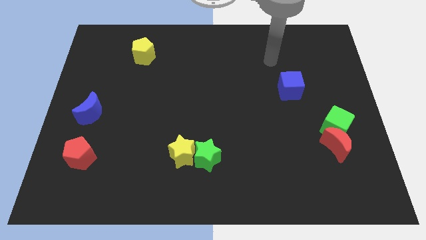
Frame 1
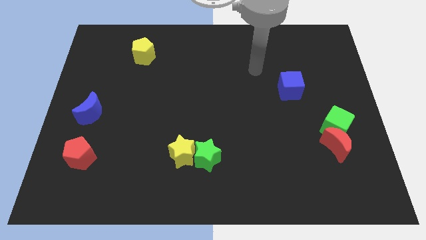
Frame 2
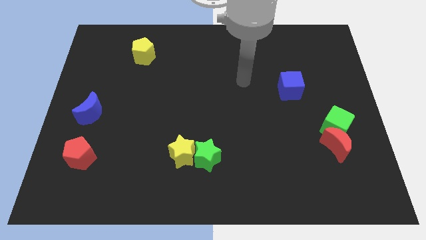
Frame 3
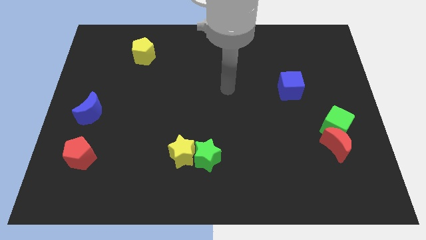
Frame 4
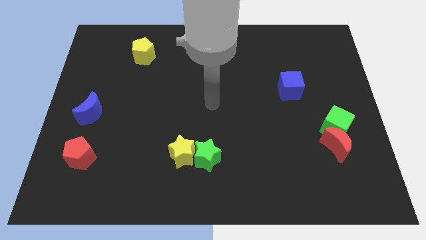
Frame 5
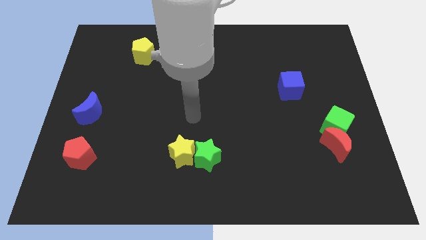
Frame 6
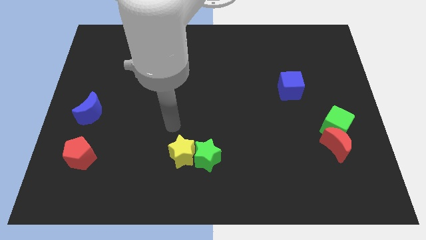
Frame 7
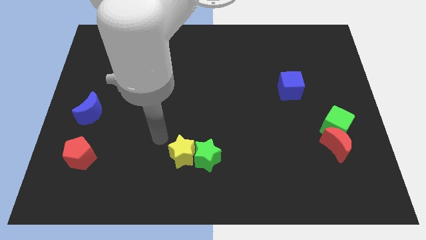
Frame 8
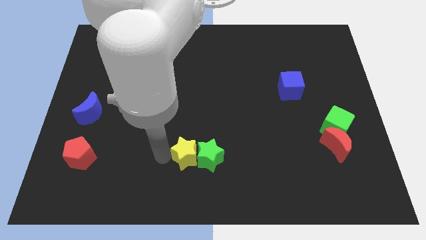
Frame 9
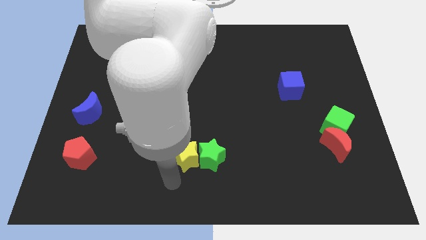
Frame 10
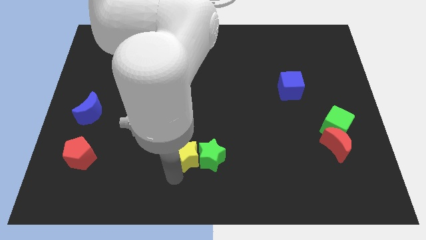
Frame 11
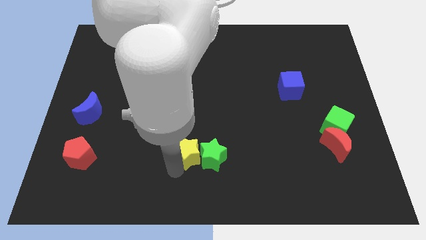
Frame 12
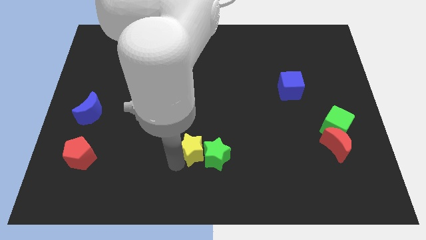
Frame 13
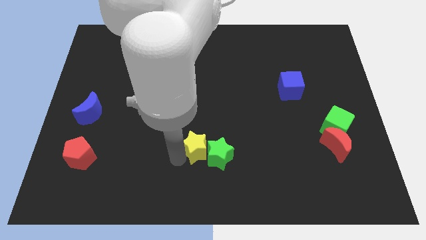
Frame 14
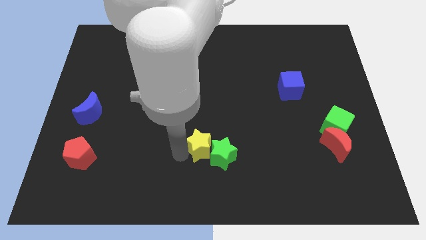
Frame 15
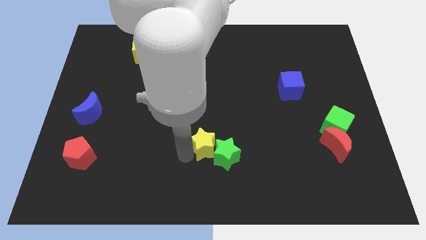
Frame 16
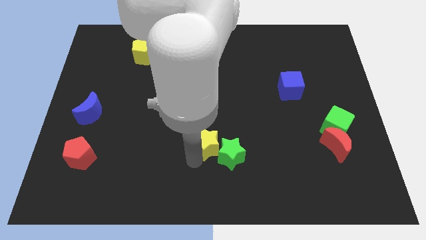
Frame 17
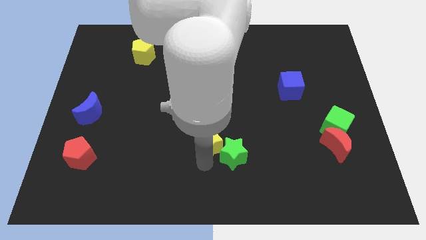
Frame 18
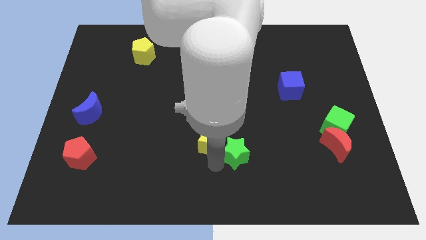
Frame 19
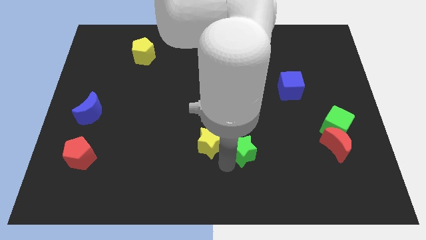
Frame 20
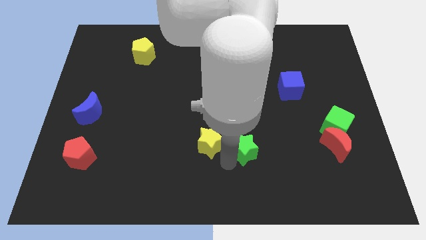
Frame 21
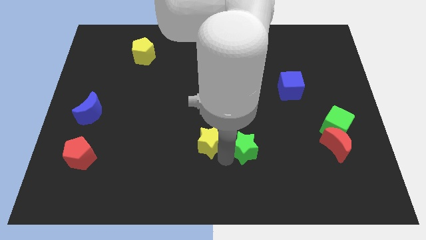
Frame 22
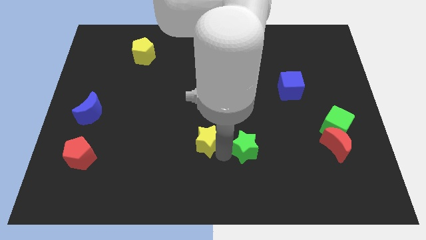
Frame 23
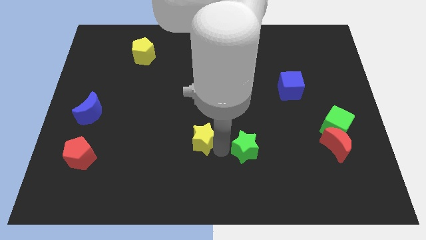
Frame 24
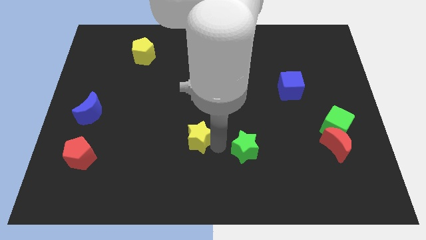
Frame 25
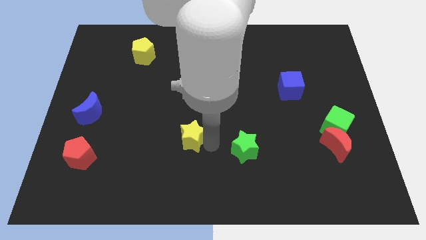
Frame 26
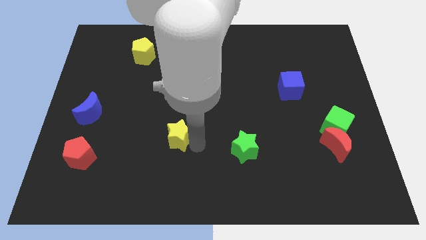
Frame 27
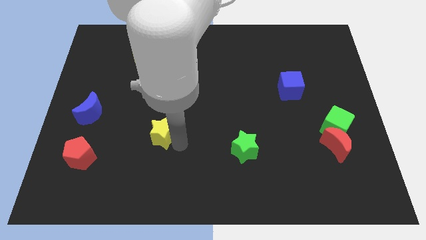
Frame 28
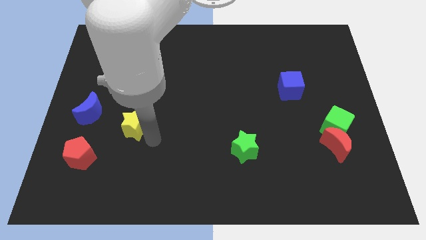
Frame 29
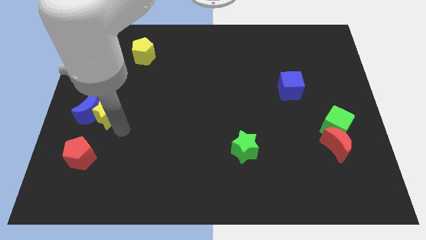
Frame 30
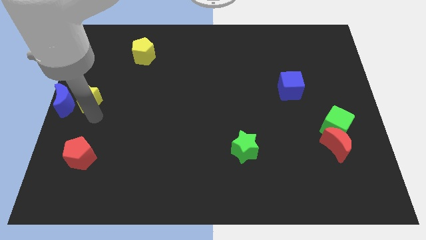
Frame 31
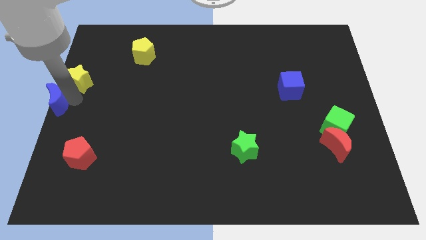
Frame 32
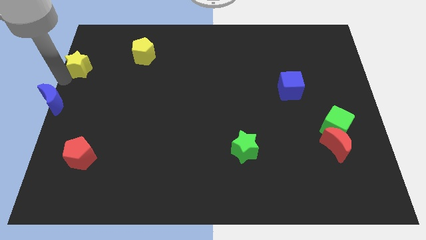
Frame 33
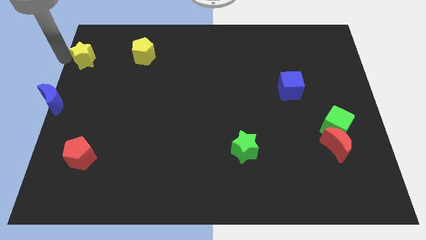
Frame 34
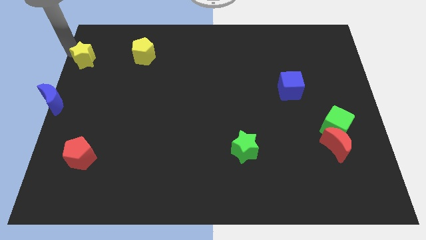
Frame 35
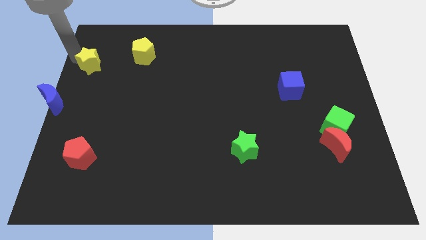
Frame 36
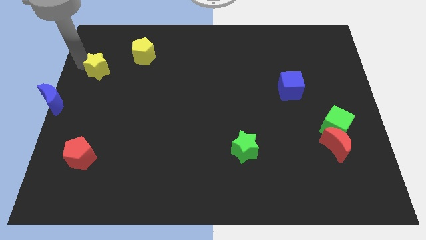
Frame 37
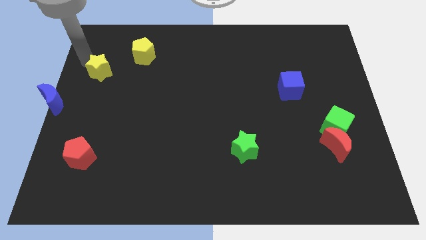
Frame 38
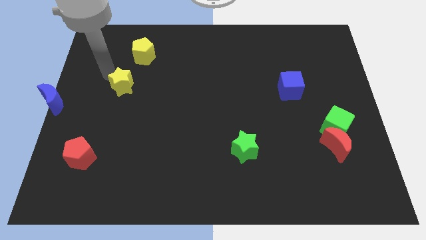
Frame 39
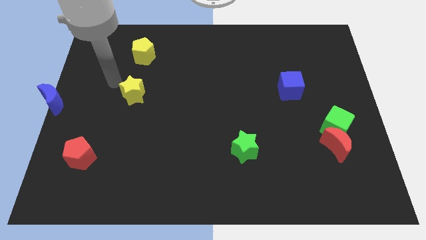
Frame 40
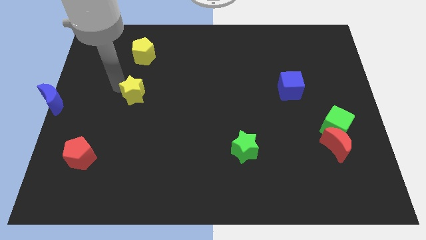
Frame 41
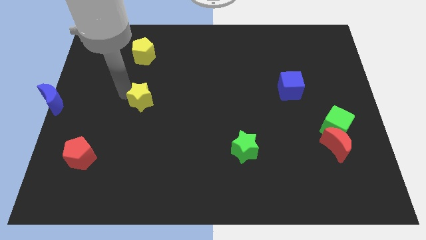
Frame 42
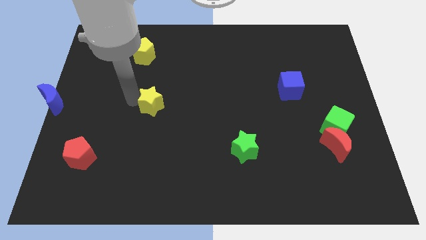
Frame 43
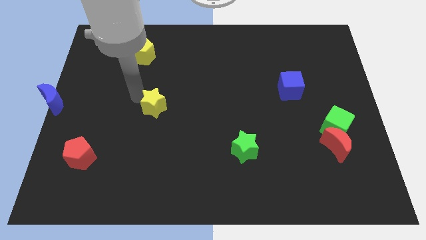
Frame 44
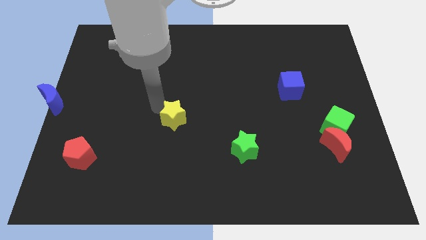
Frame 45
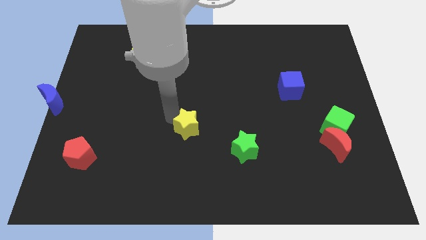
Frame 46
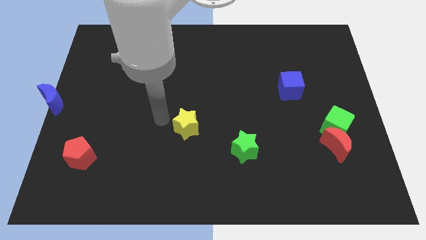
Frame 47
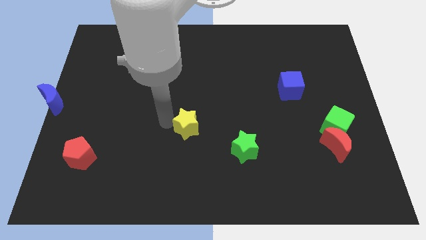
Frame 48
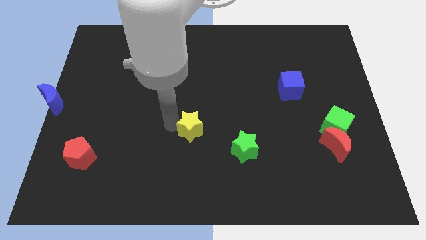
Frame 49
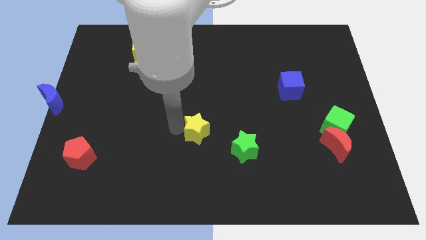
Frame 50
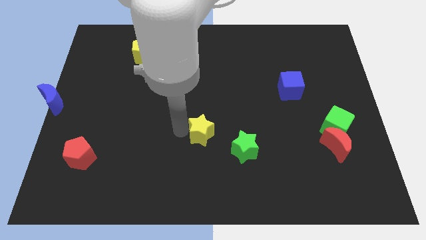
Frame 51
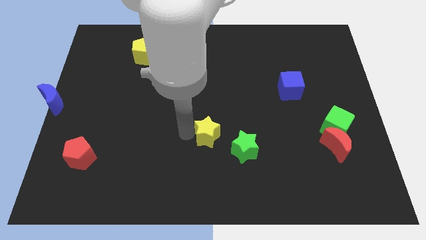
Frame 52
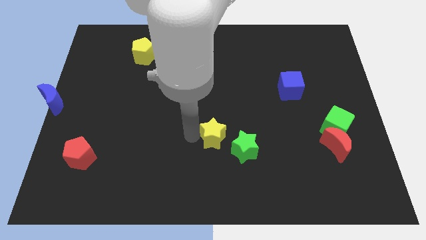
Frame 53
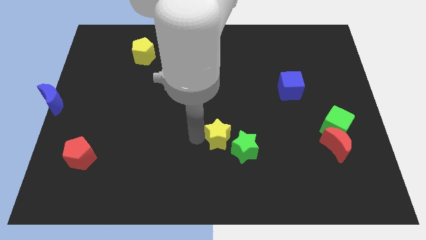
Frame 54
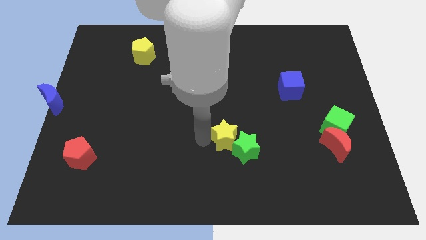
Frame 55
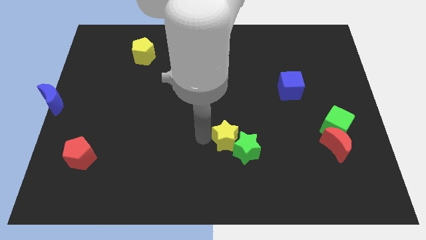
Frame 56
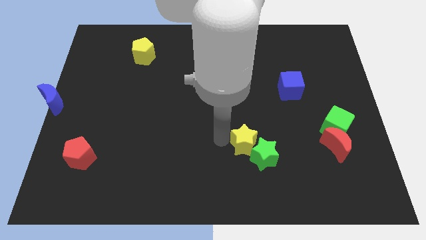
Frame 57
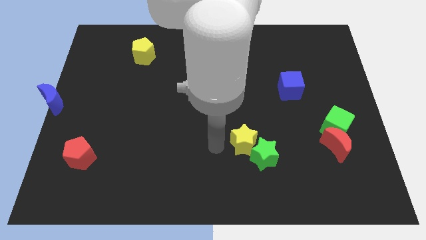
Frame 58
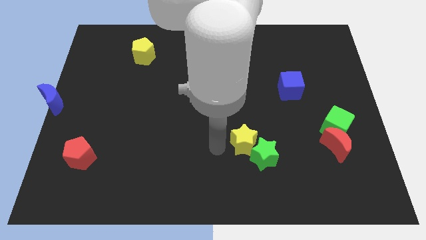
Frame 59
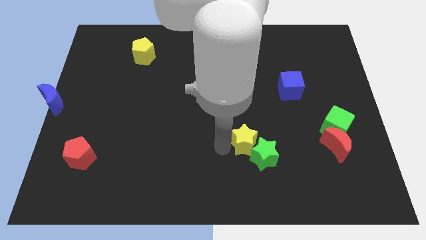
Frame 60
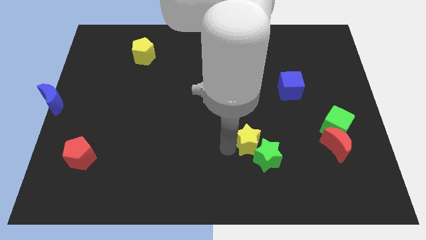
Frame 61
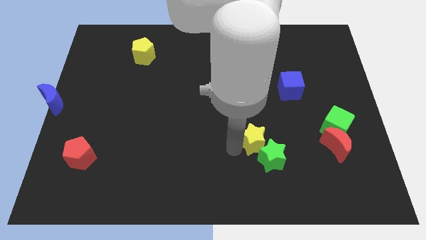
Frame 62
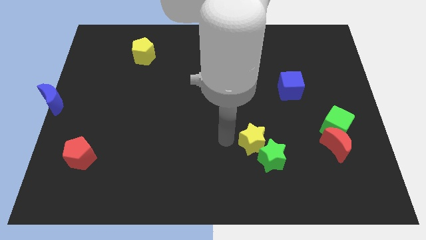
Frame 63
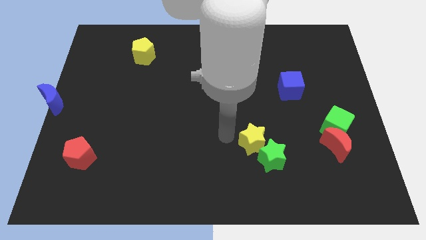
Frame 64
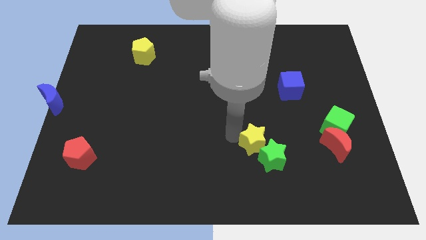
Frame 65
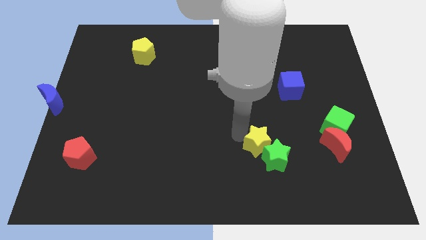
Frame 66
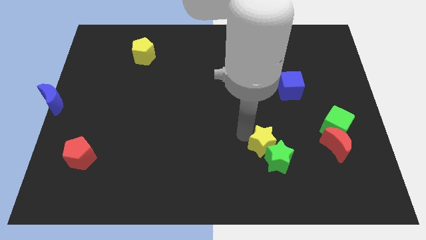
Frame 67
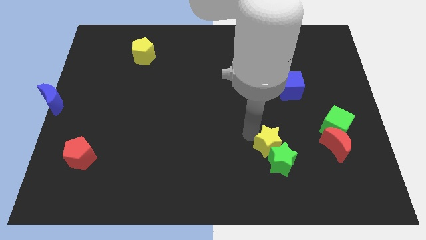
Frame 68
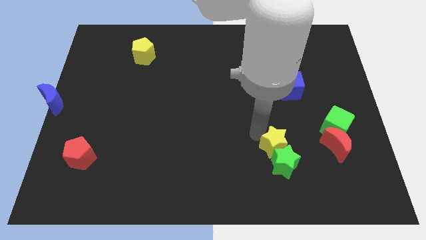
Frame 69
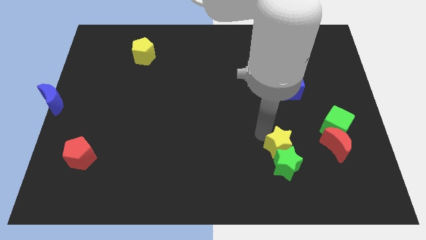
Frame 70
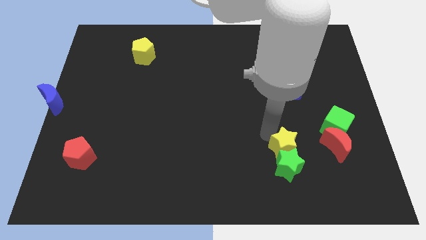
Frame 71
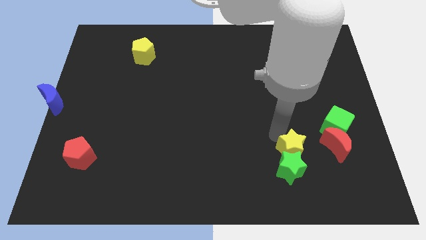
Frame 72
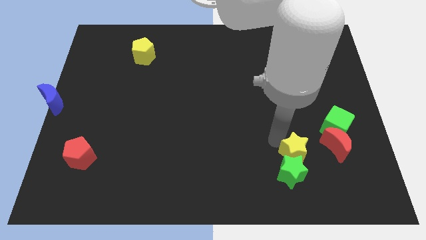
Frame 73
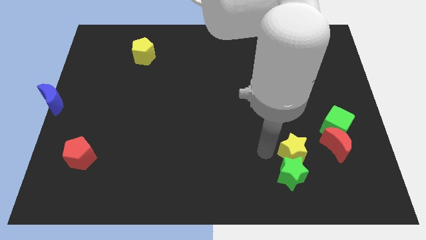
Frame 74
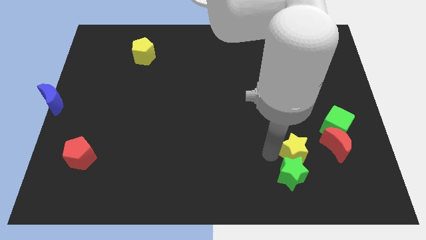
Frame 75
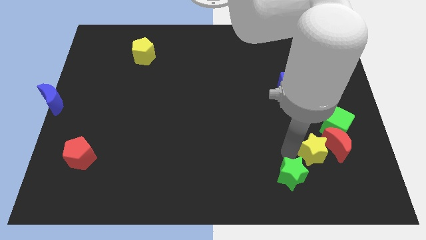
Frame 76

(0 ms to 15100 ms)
push the yellow star towards the red moon

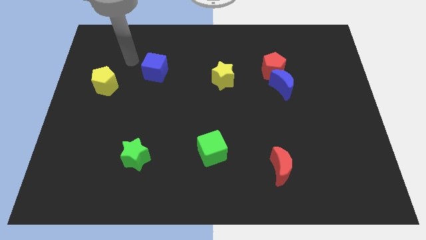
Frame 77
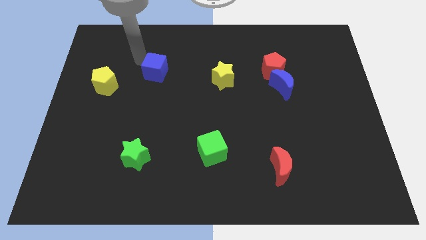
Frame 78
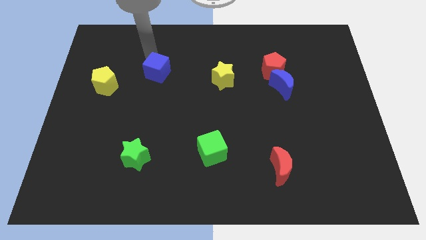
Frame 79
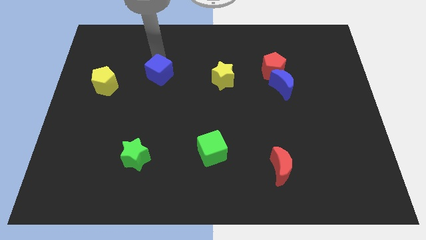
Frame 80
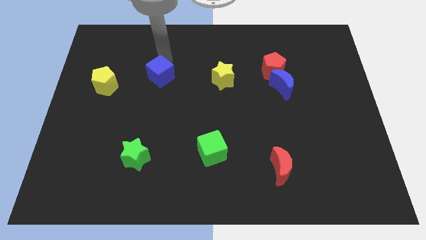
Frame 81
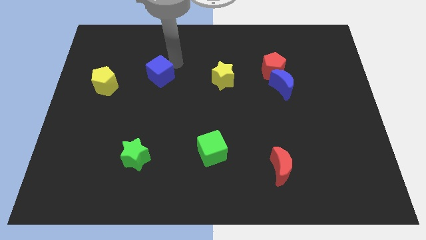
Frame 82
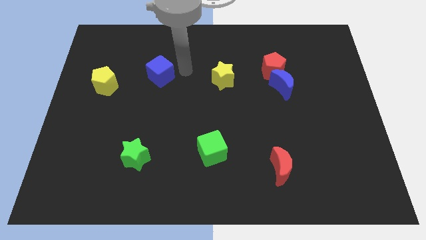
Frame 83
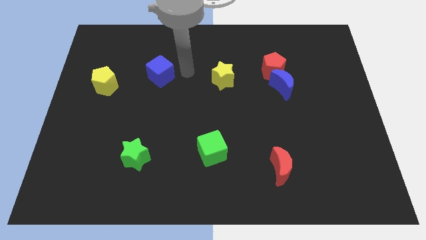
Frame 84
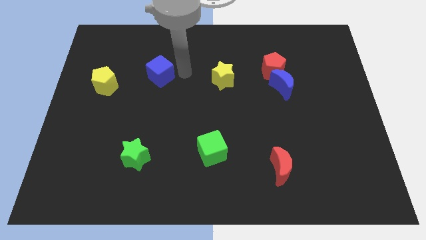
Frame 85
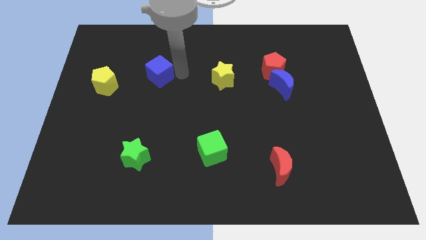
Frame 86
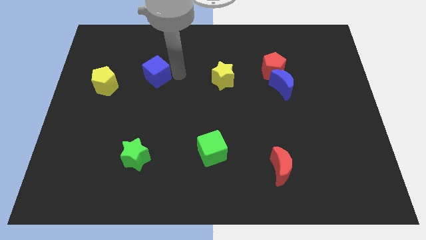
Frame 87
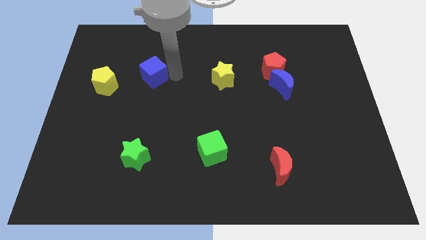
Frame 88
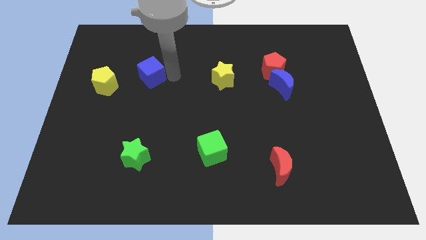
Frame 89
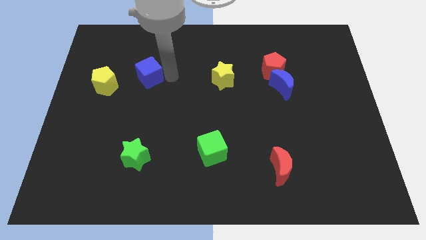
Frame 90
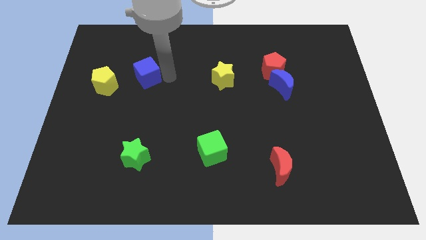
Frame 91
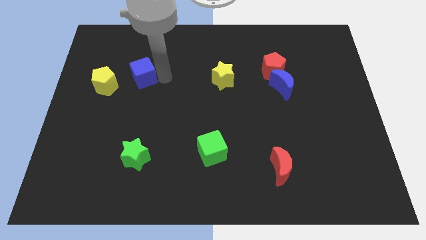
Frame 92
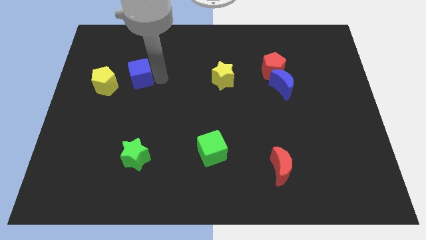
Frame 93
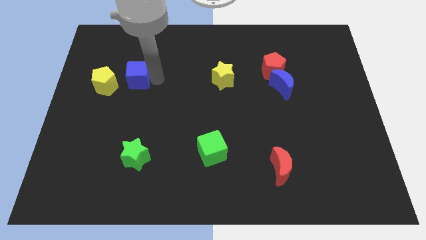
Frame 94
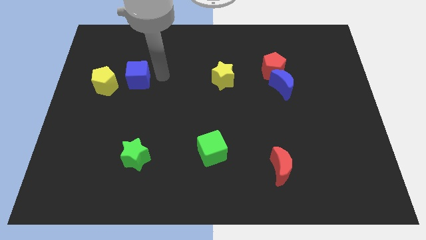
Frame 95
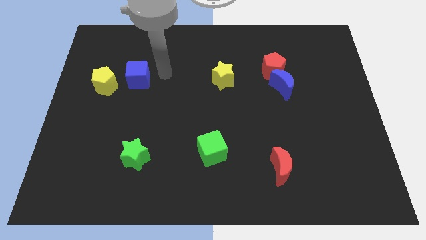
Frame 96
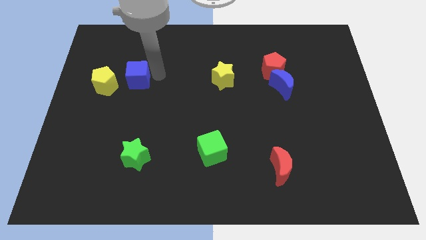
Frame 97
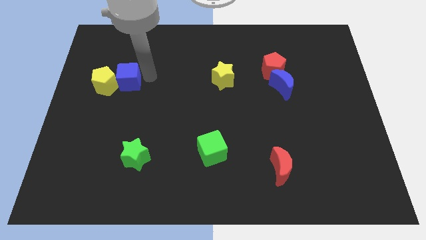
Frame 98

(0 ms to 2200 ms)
move the blue cube close to the yellow pentagon
